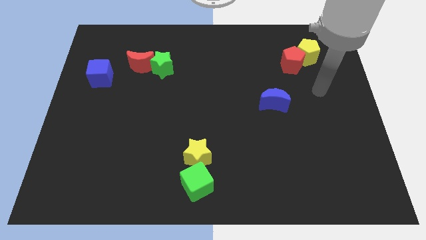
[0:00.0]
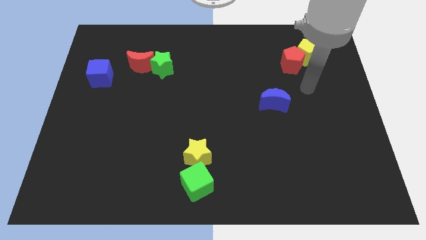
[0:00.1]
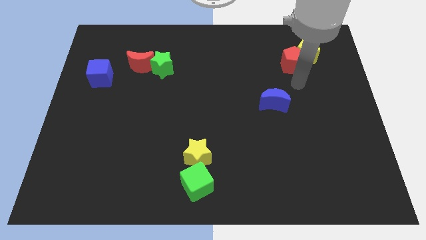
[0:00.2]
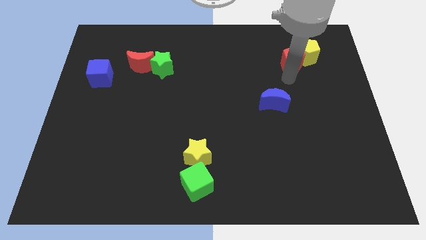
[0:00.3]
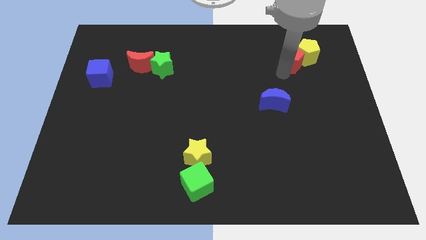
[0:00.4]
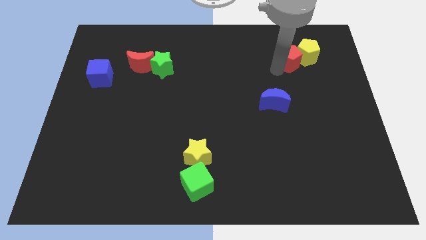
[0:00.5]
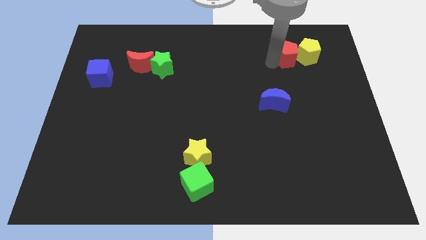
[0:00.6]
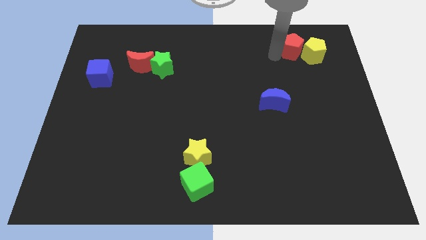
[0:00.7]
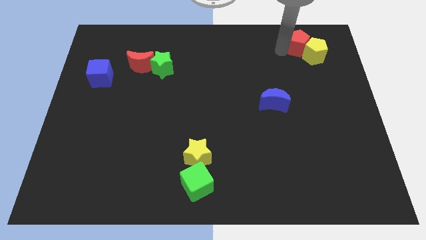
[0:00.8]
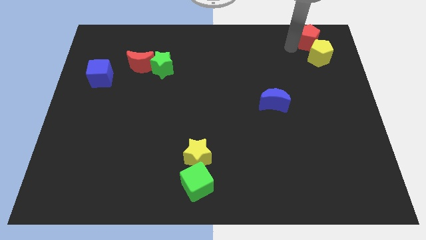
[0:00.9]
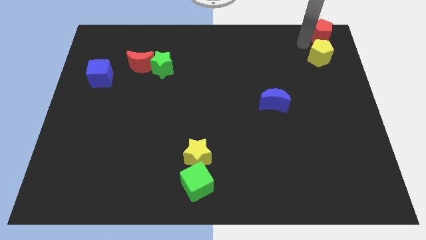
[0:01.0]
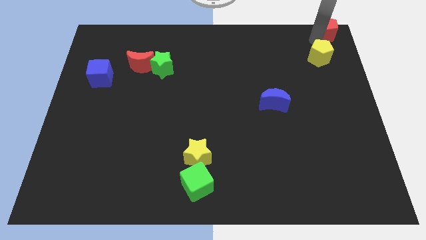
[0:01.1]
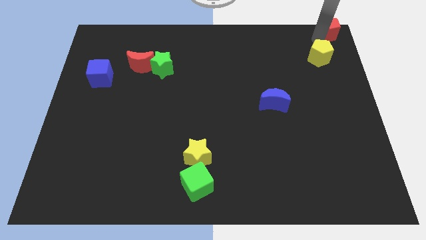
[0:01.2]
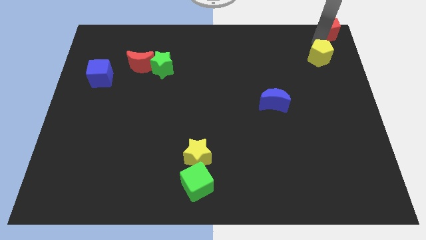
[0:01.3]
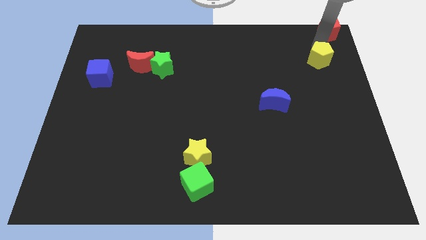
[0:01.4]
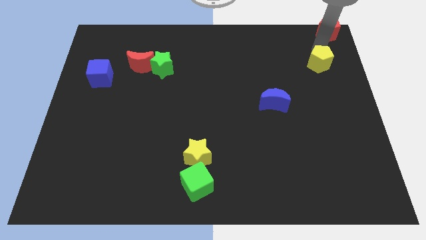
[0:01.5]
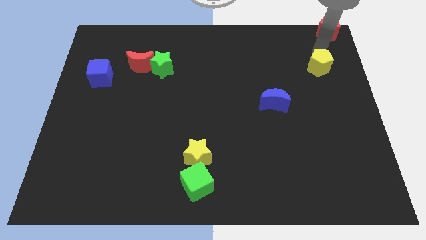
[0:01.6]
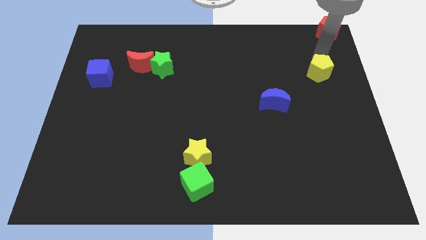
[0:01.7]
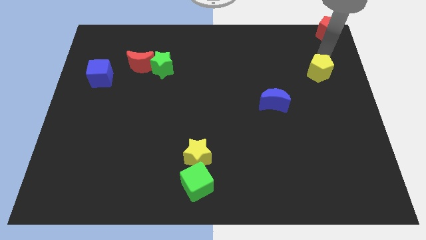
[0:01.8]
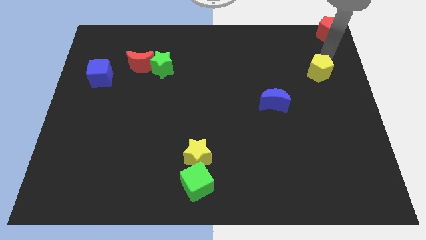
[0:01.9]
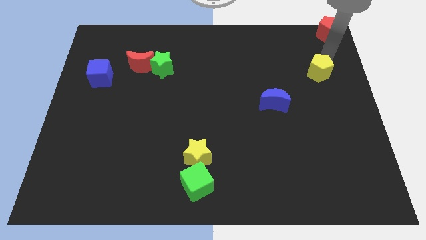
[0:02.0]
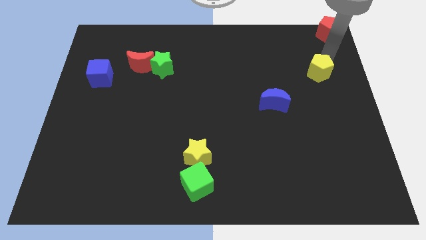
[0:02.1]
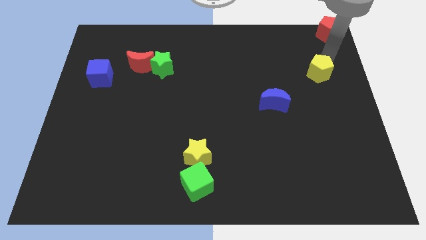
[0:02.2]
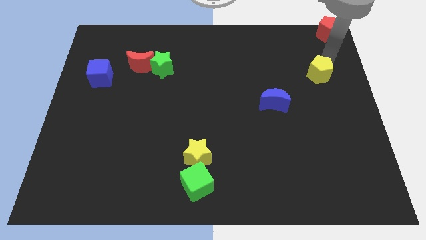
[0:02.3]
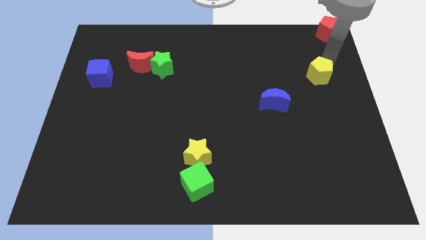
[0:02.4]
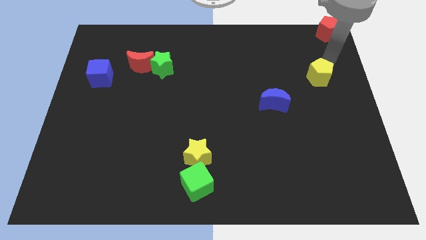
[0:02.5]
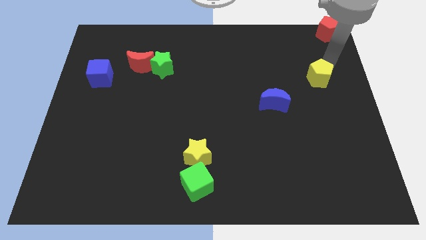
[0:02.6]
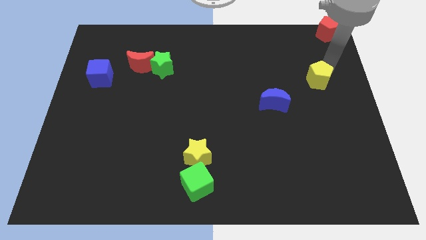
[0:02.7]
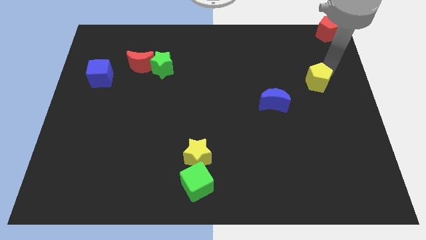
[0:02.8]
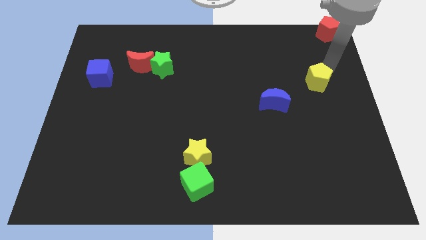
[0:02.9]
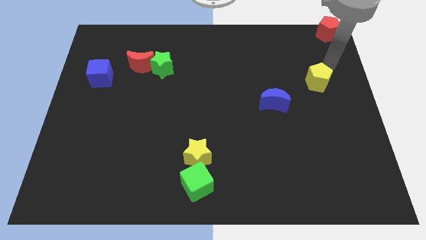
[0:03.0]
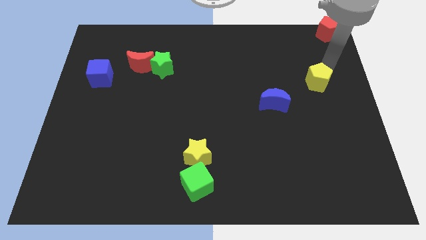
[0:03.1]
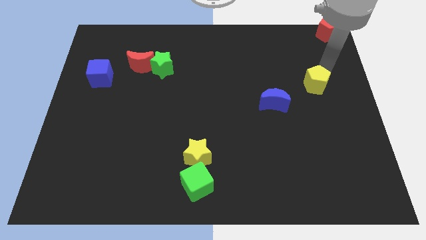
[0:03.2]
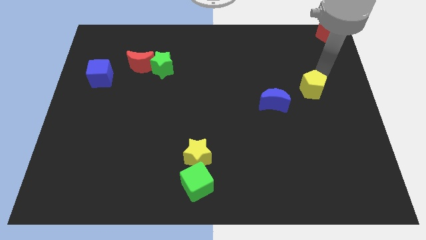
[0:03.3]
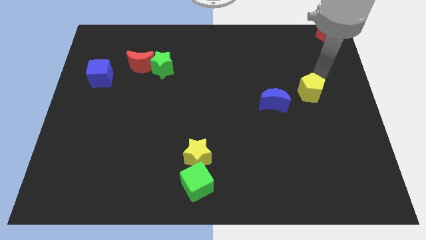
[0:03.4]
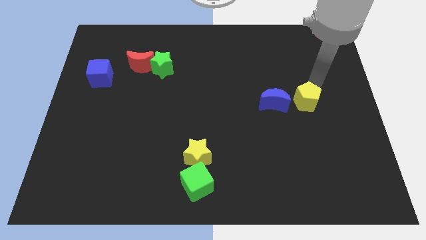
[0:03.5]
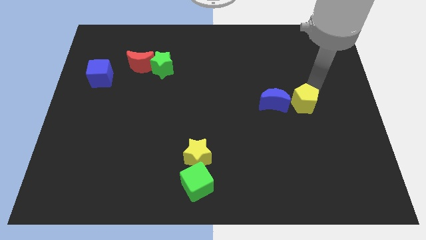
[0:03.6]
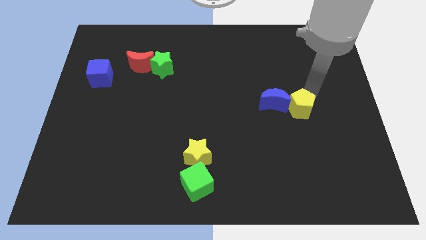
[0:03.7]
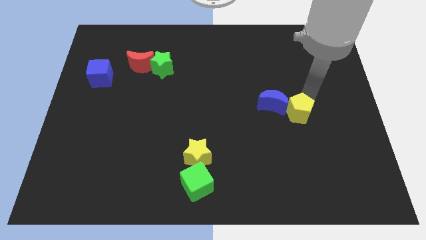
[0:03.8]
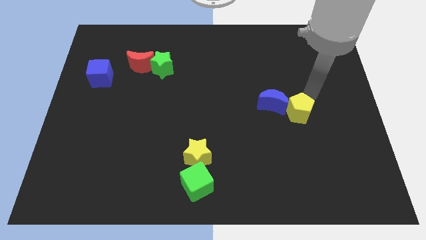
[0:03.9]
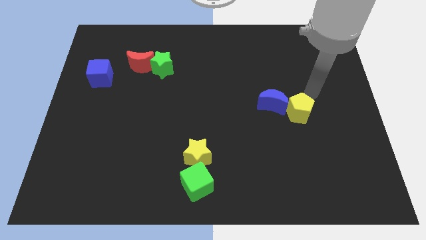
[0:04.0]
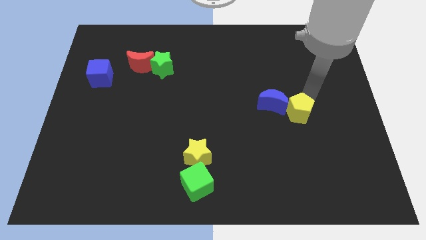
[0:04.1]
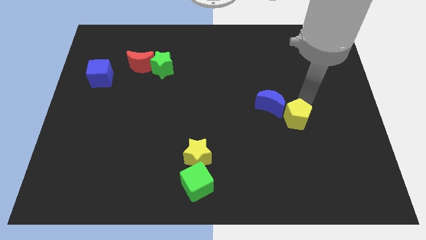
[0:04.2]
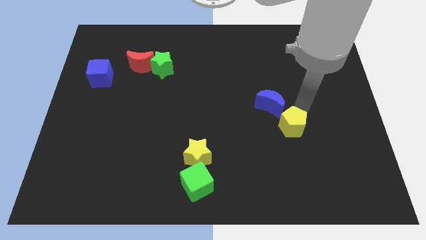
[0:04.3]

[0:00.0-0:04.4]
put the yellow pentagon to the bottom of the blue moon

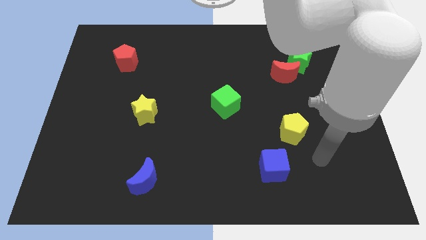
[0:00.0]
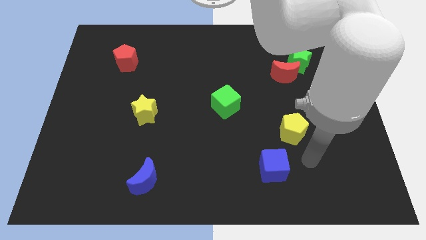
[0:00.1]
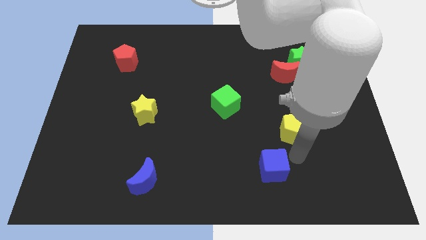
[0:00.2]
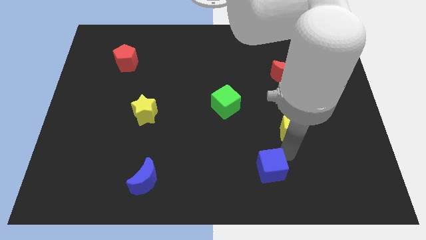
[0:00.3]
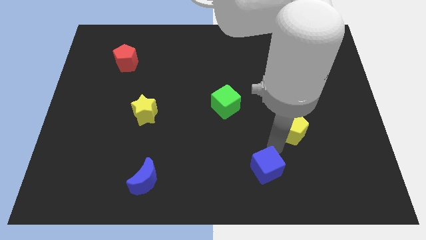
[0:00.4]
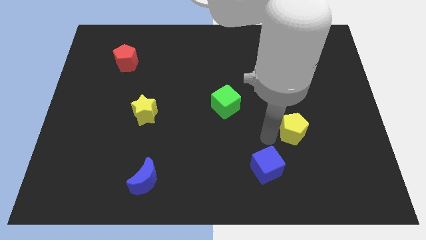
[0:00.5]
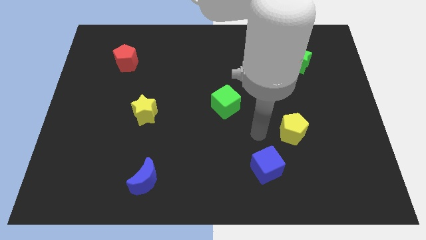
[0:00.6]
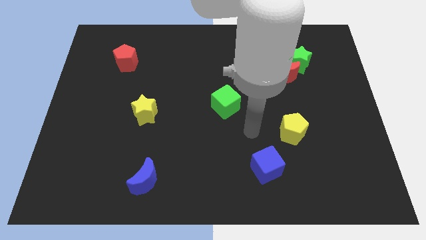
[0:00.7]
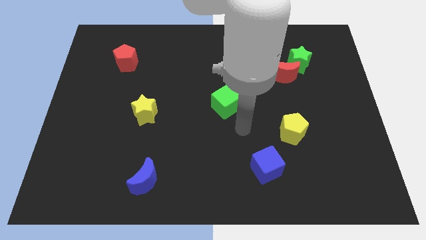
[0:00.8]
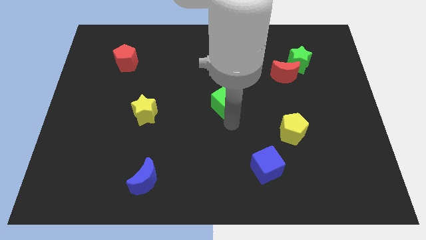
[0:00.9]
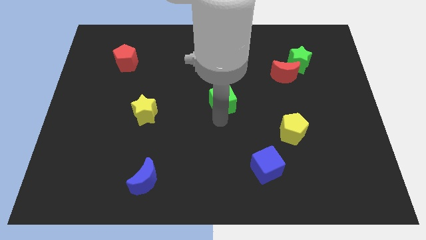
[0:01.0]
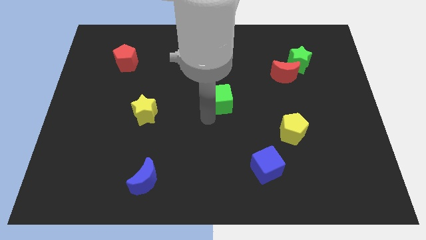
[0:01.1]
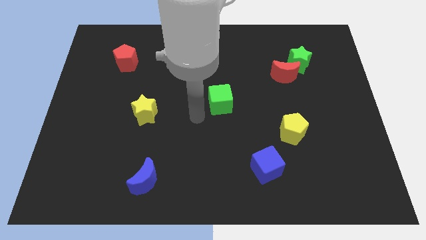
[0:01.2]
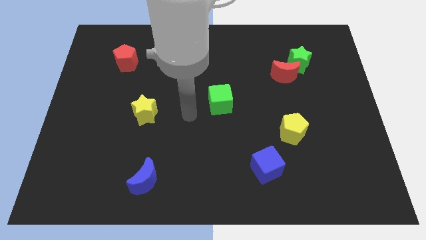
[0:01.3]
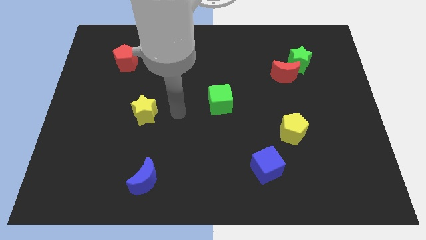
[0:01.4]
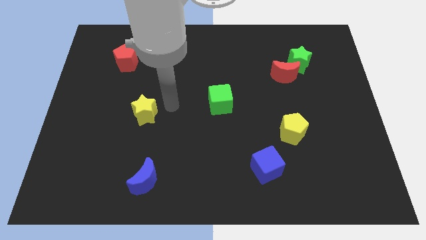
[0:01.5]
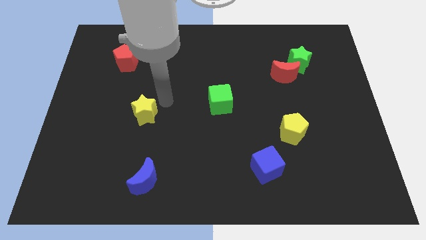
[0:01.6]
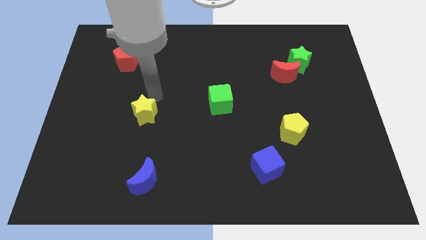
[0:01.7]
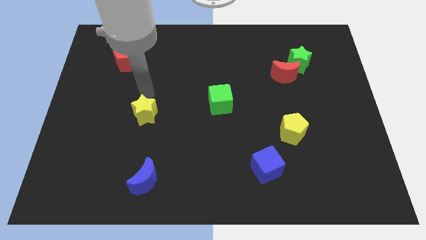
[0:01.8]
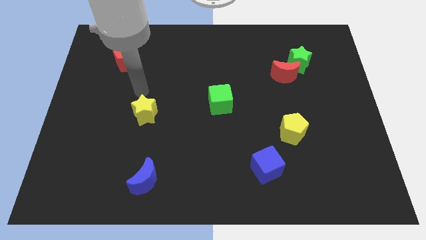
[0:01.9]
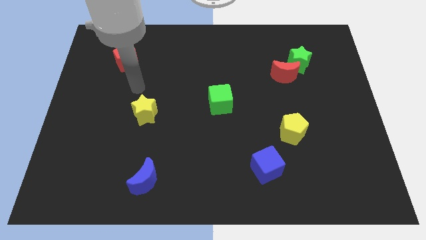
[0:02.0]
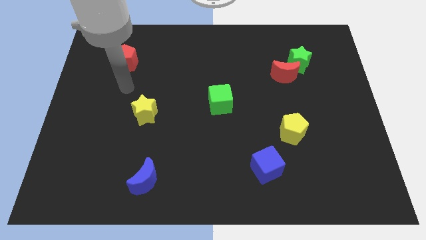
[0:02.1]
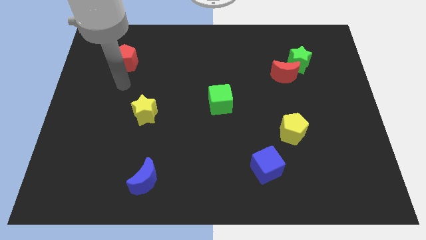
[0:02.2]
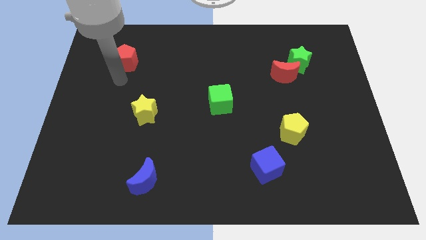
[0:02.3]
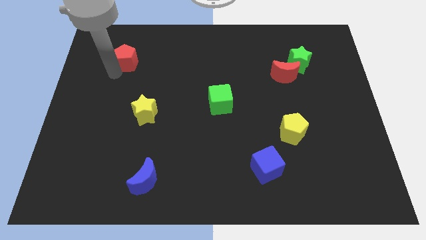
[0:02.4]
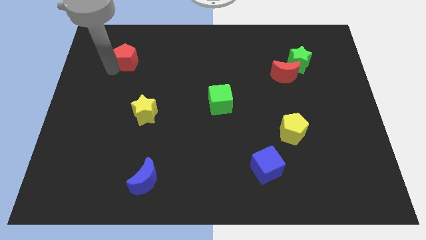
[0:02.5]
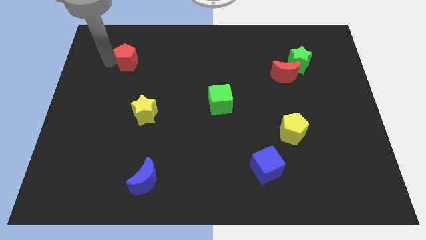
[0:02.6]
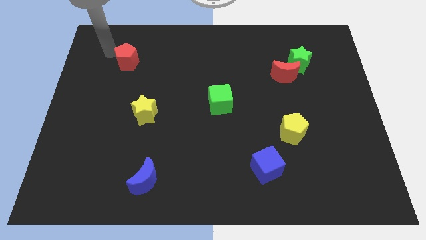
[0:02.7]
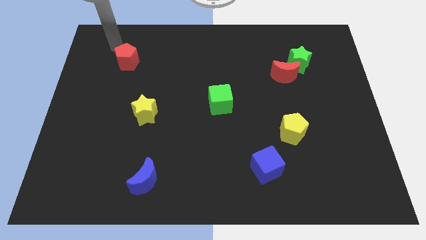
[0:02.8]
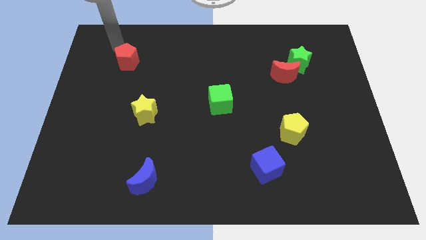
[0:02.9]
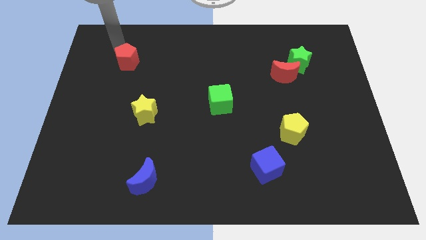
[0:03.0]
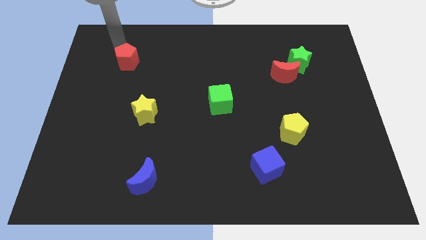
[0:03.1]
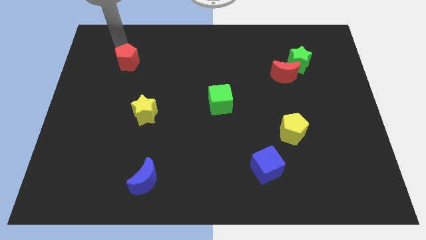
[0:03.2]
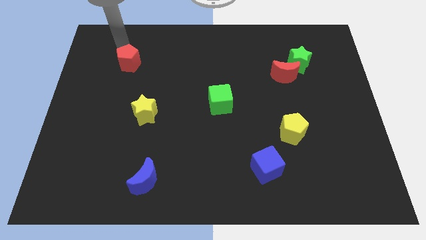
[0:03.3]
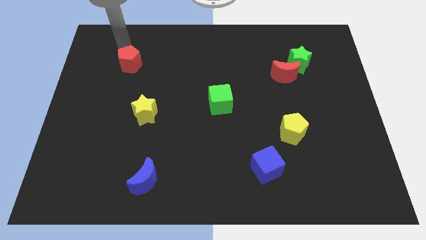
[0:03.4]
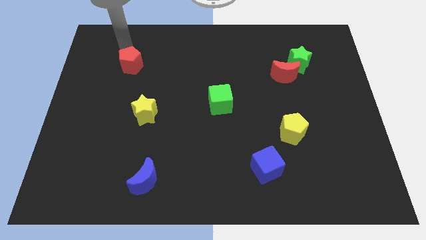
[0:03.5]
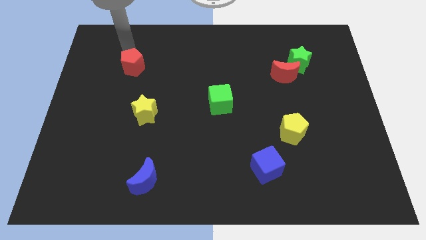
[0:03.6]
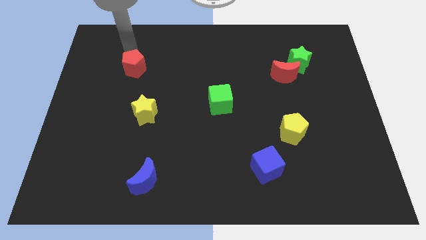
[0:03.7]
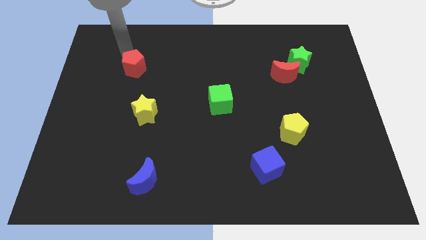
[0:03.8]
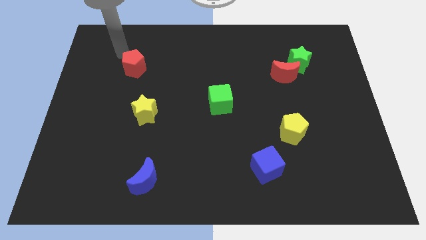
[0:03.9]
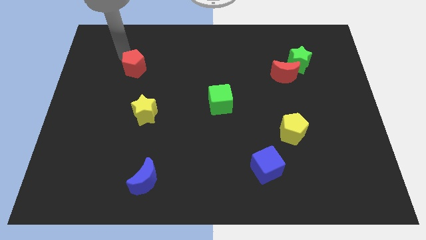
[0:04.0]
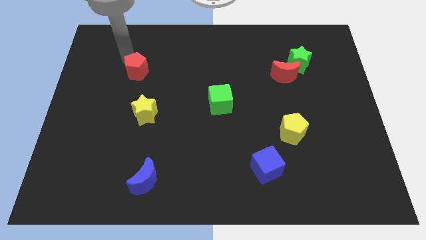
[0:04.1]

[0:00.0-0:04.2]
push the red pentagon to the top of the yellow star
